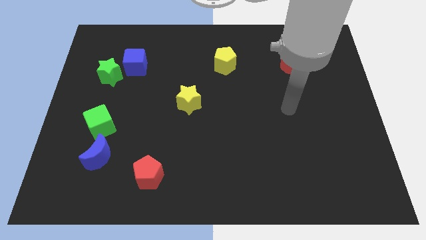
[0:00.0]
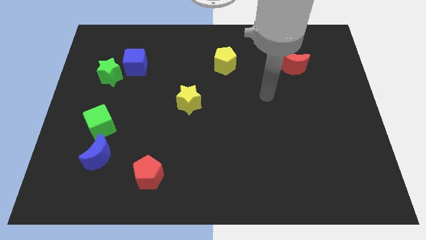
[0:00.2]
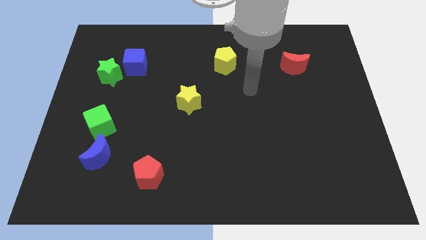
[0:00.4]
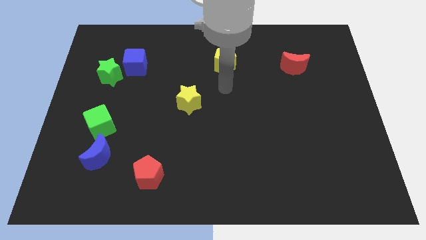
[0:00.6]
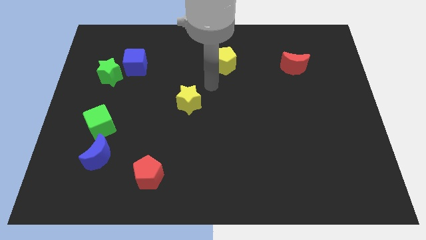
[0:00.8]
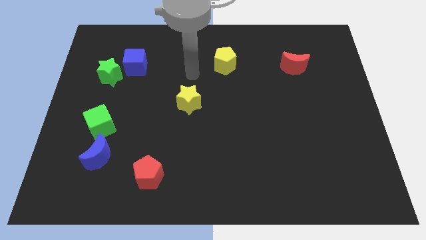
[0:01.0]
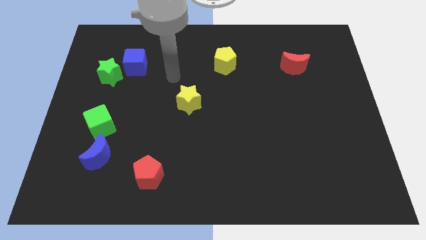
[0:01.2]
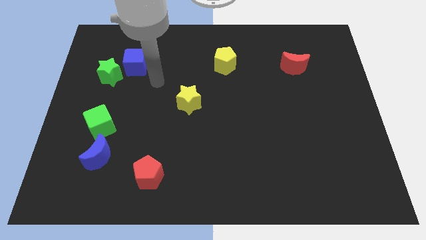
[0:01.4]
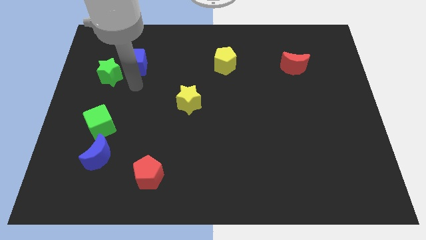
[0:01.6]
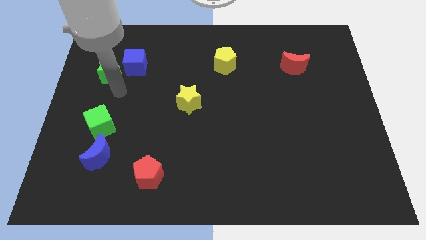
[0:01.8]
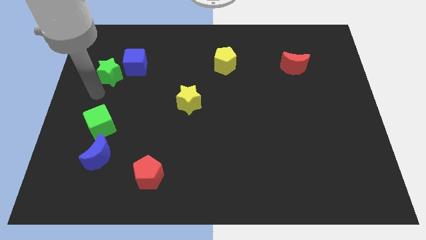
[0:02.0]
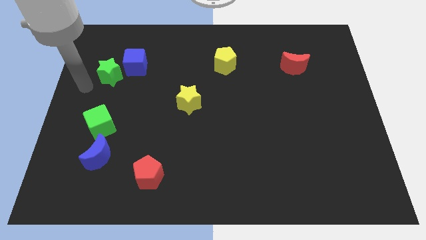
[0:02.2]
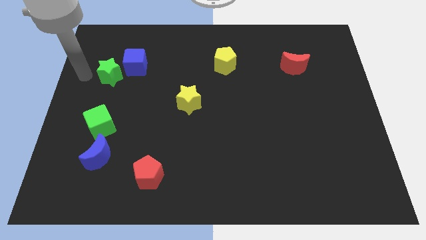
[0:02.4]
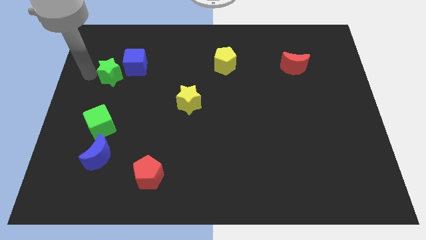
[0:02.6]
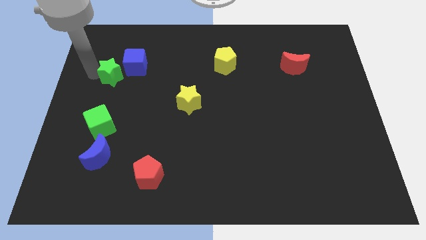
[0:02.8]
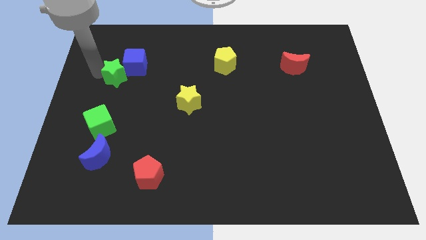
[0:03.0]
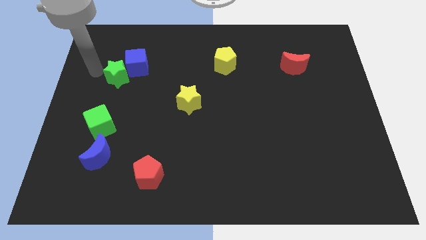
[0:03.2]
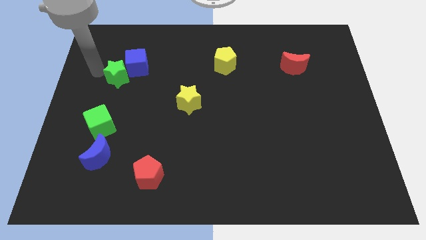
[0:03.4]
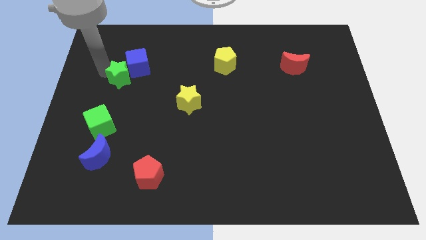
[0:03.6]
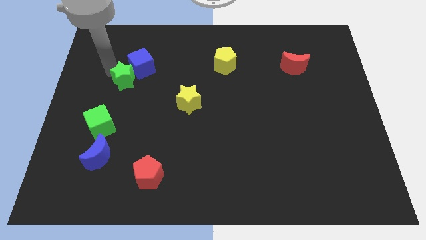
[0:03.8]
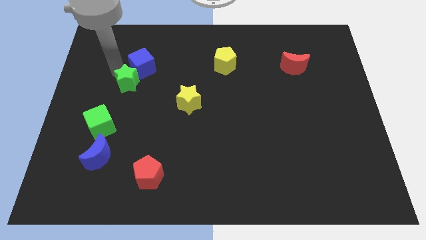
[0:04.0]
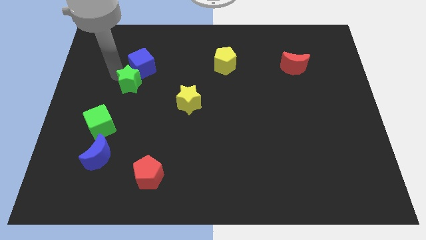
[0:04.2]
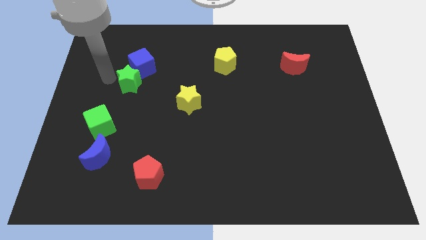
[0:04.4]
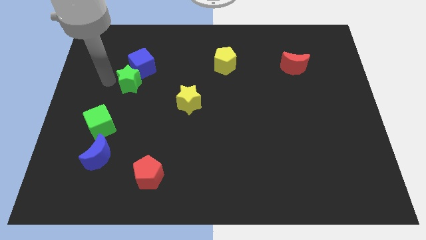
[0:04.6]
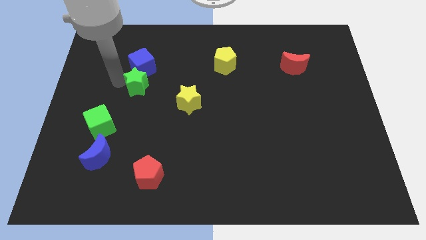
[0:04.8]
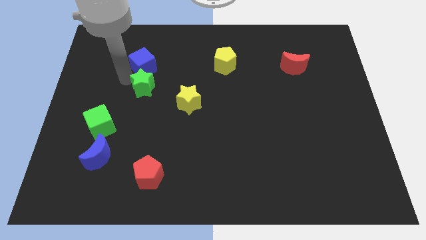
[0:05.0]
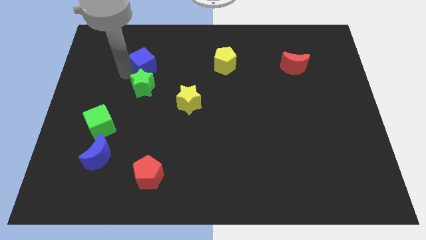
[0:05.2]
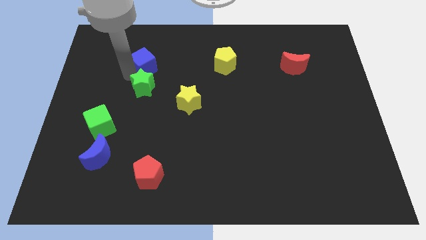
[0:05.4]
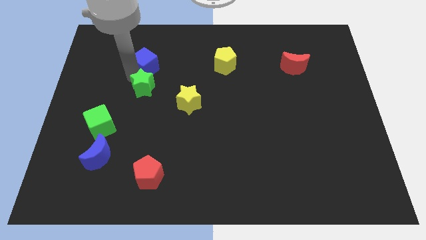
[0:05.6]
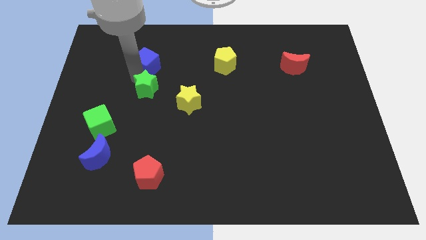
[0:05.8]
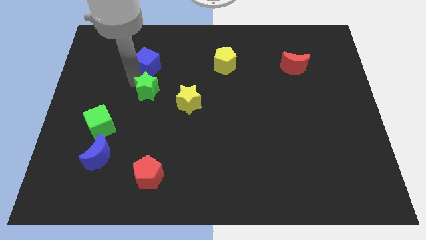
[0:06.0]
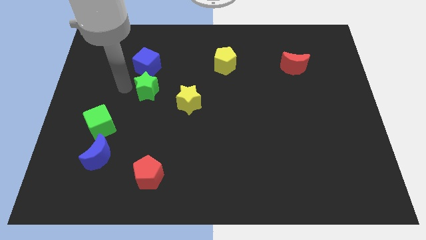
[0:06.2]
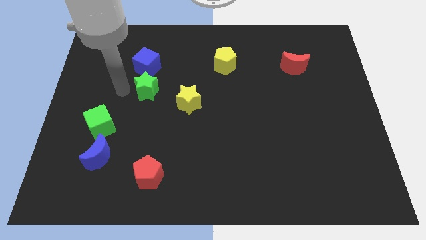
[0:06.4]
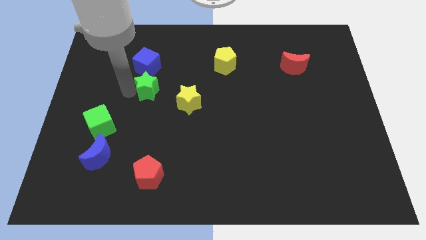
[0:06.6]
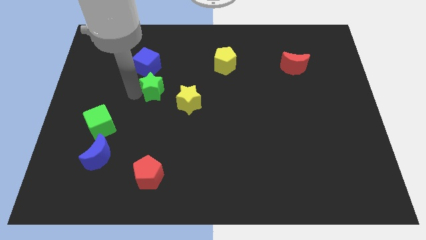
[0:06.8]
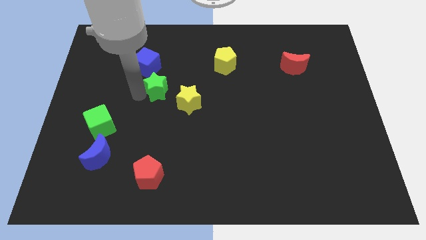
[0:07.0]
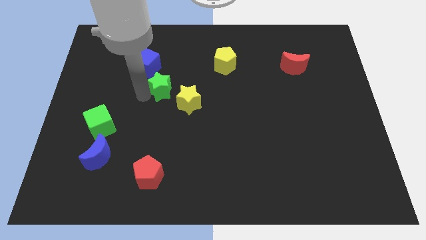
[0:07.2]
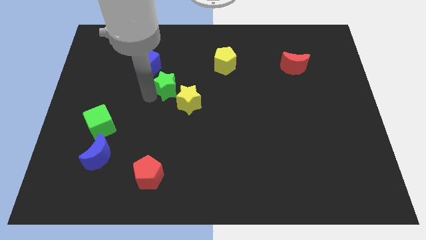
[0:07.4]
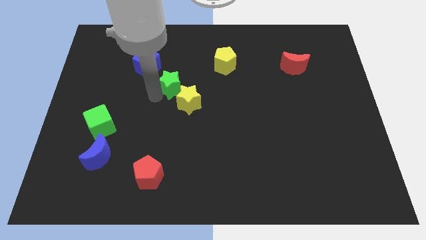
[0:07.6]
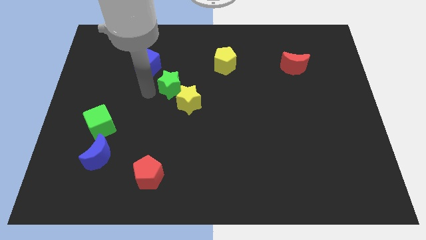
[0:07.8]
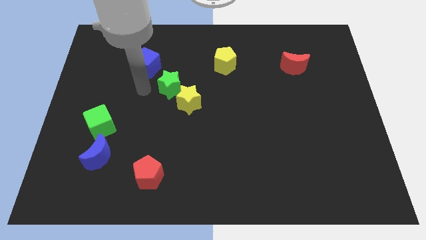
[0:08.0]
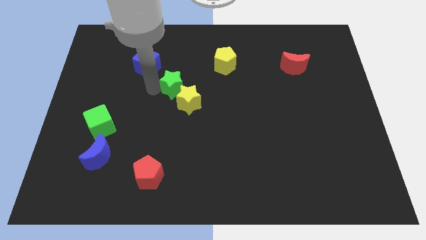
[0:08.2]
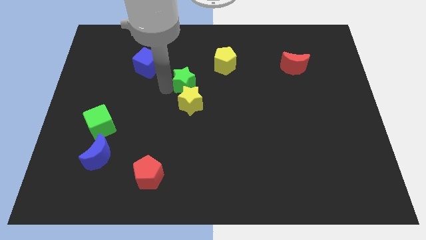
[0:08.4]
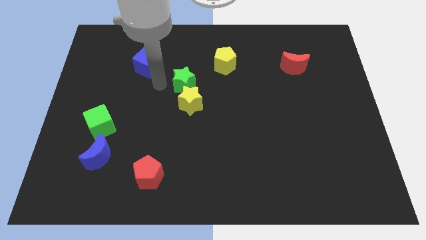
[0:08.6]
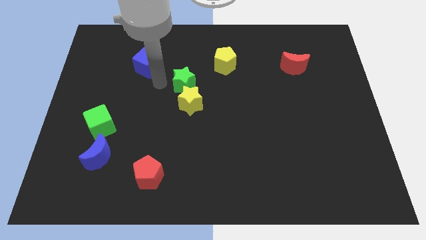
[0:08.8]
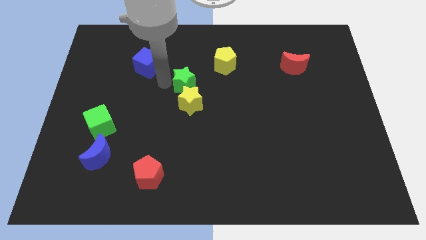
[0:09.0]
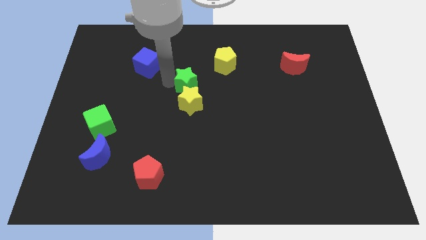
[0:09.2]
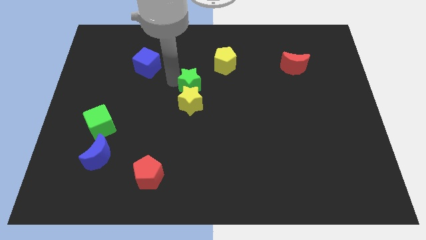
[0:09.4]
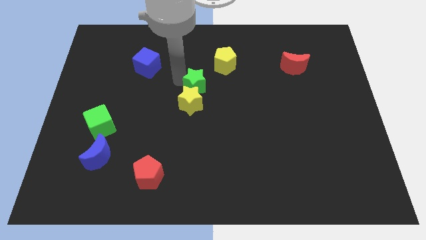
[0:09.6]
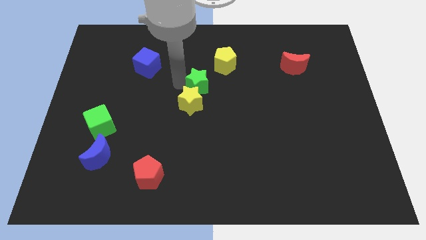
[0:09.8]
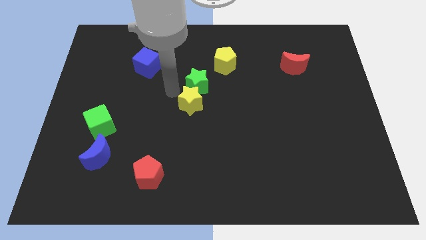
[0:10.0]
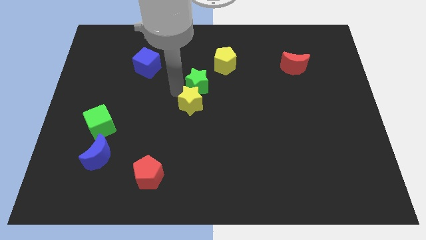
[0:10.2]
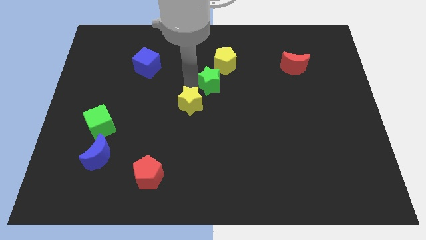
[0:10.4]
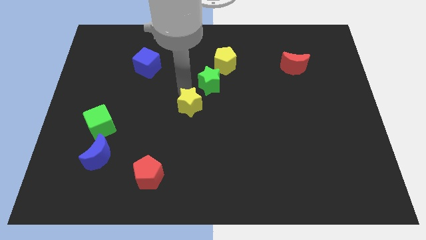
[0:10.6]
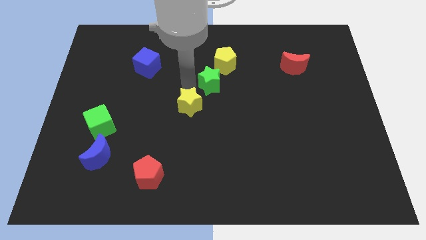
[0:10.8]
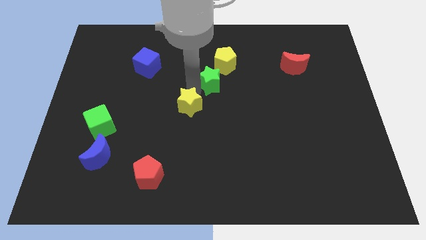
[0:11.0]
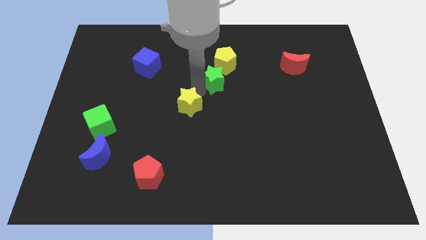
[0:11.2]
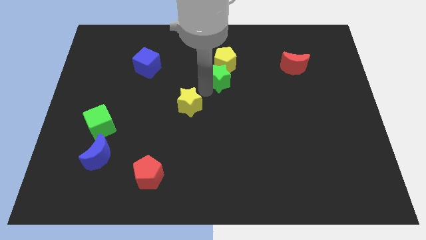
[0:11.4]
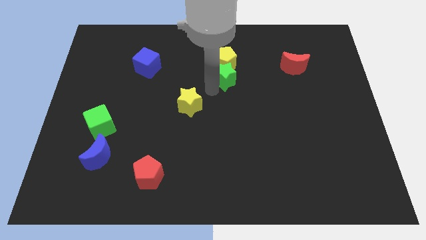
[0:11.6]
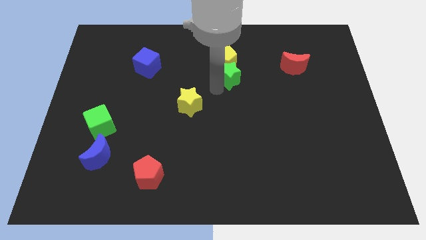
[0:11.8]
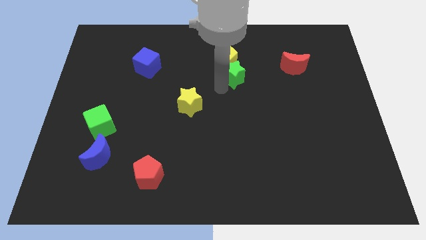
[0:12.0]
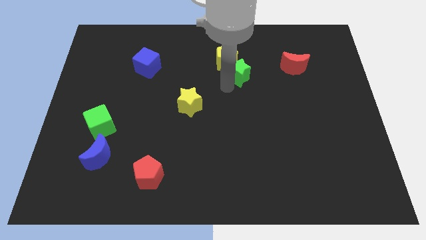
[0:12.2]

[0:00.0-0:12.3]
push the green star to the left of the red moon
